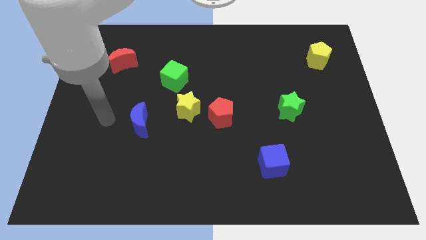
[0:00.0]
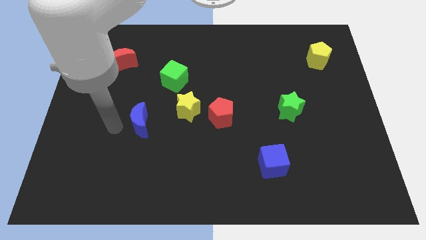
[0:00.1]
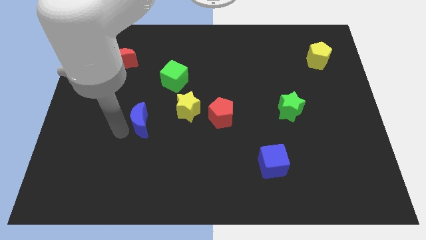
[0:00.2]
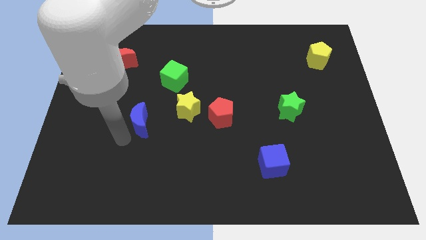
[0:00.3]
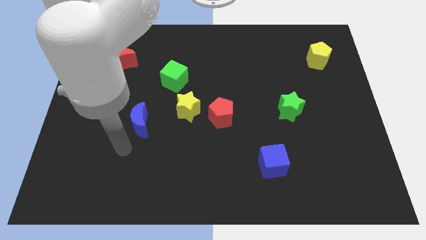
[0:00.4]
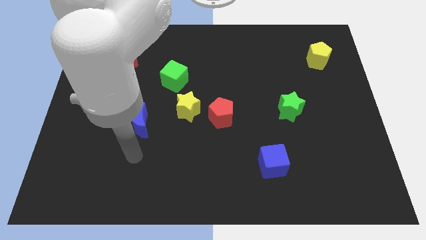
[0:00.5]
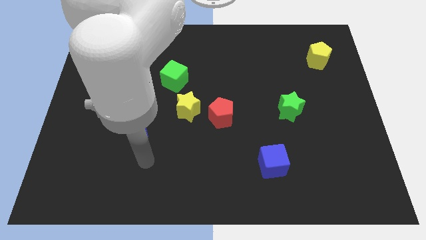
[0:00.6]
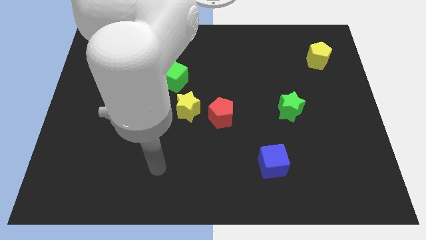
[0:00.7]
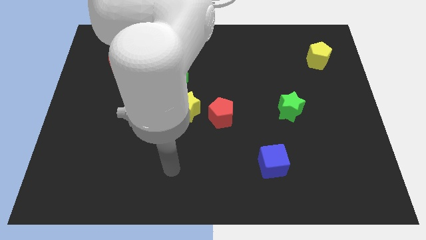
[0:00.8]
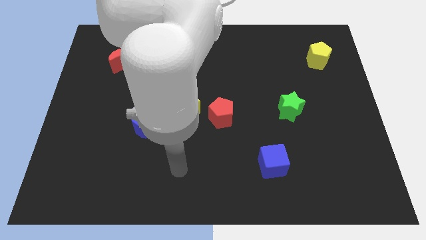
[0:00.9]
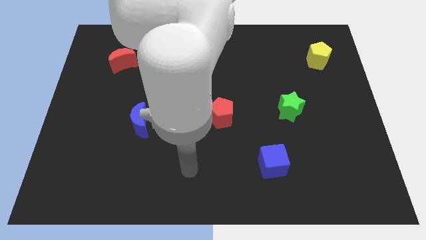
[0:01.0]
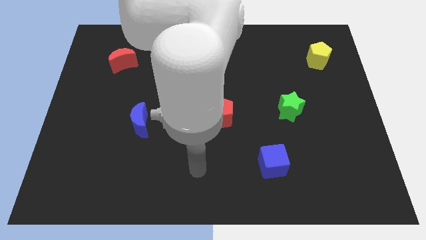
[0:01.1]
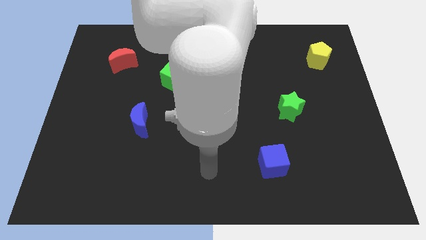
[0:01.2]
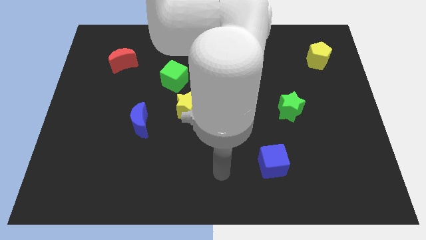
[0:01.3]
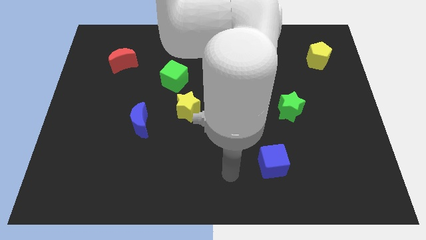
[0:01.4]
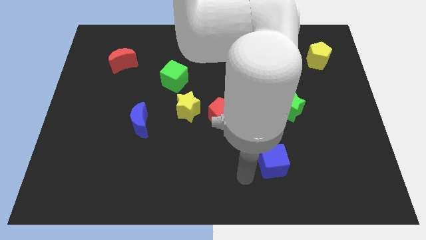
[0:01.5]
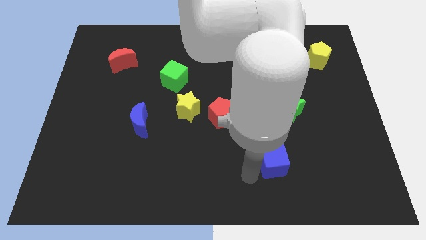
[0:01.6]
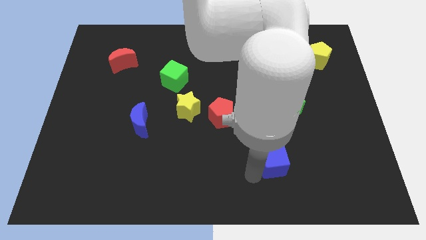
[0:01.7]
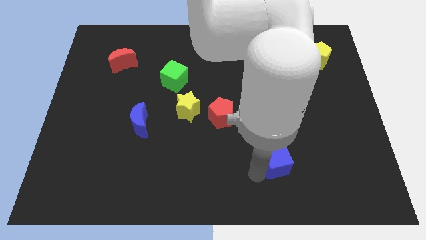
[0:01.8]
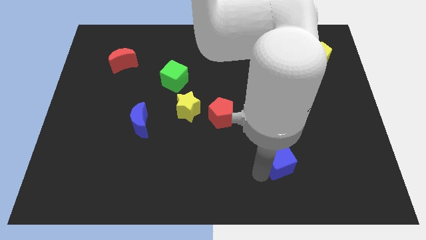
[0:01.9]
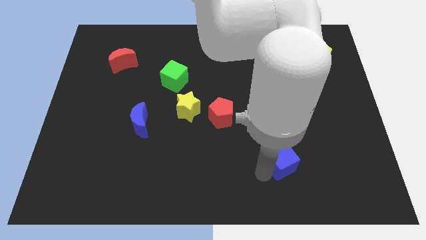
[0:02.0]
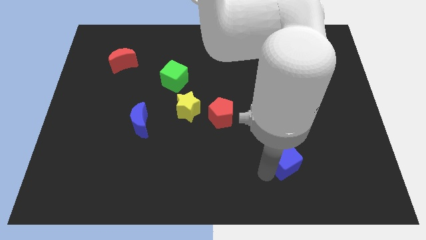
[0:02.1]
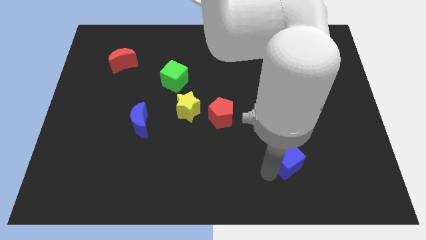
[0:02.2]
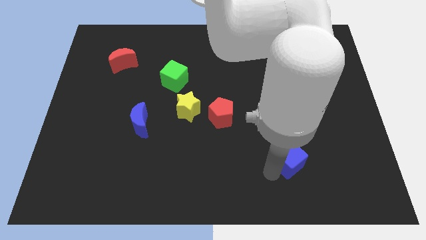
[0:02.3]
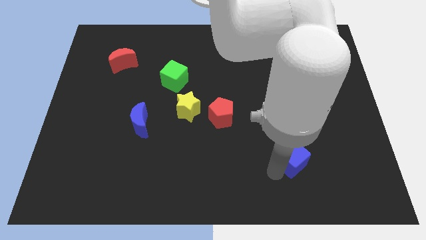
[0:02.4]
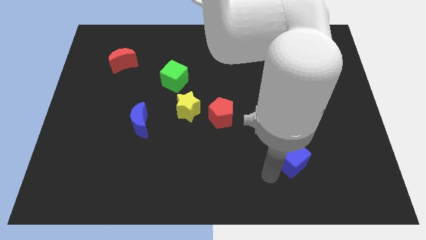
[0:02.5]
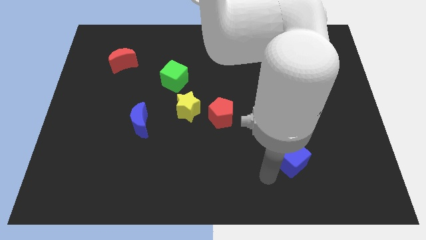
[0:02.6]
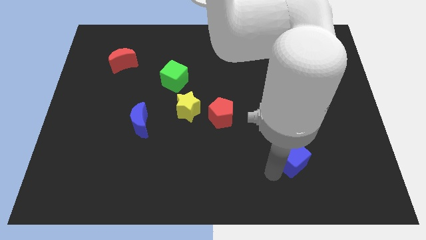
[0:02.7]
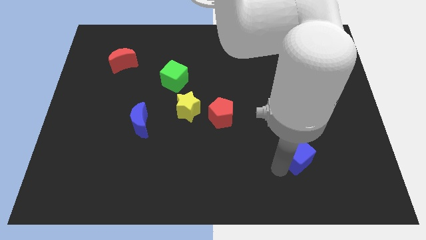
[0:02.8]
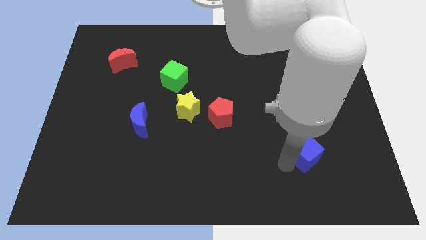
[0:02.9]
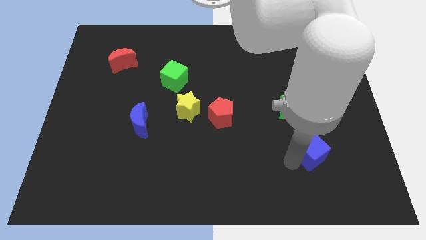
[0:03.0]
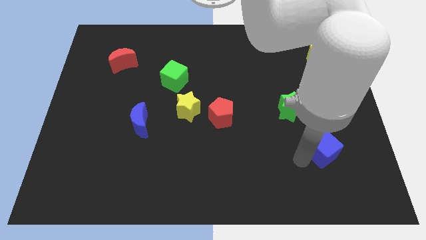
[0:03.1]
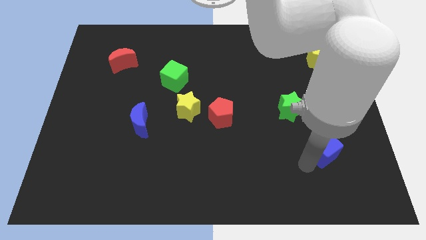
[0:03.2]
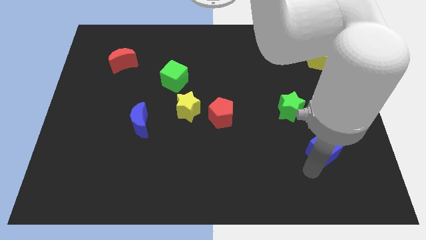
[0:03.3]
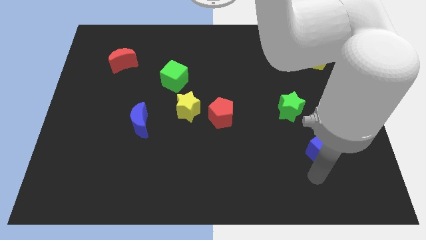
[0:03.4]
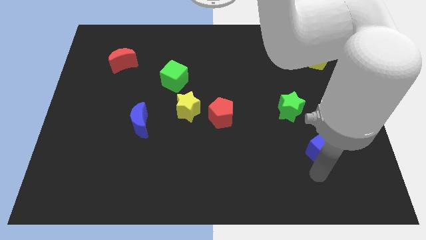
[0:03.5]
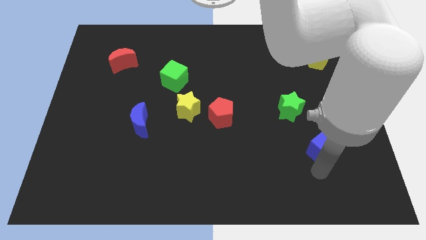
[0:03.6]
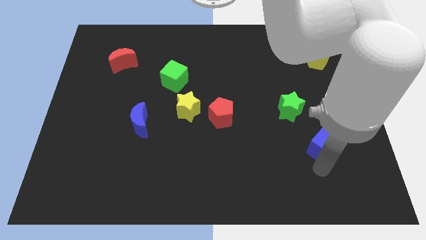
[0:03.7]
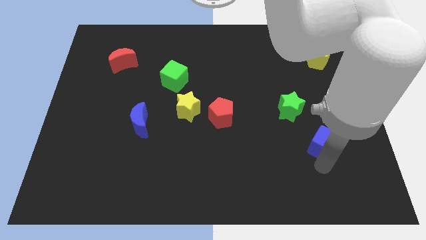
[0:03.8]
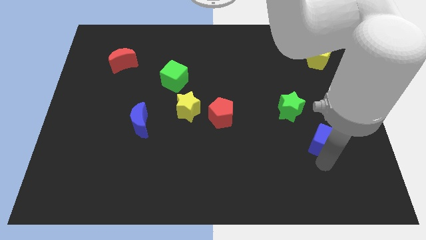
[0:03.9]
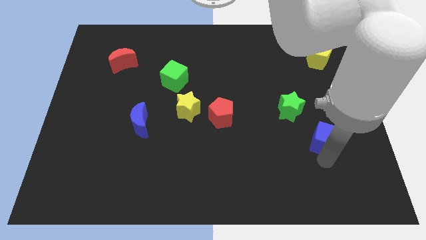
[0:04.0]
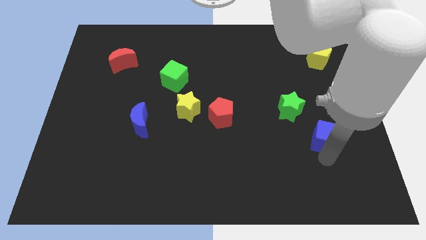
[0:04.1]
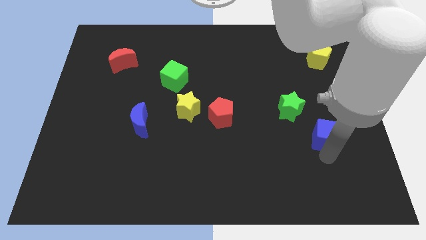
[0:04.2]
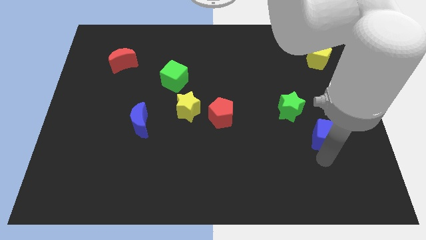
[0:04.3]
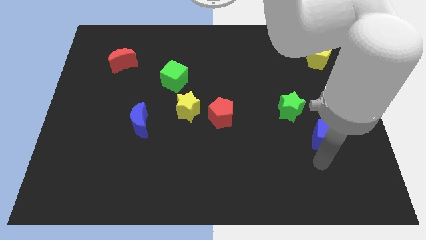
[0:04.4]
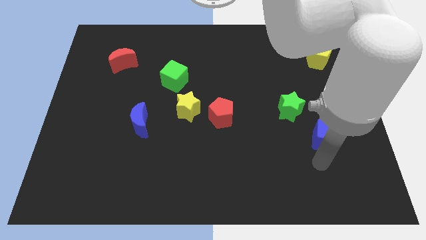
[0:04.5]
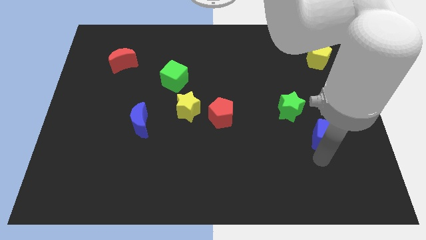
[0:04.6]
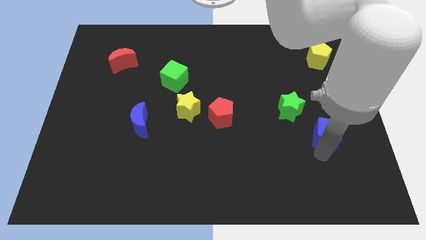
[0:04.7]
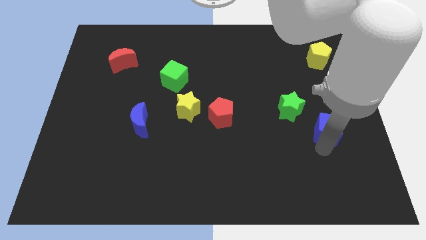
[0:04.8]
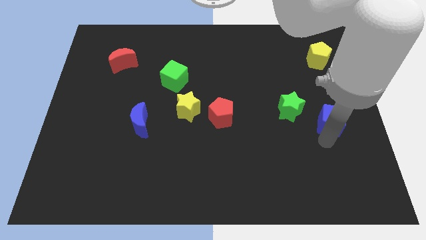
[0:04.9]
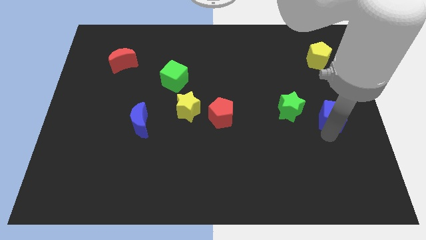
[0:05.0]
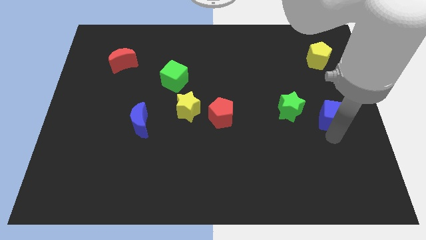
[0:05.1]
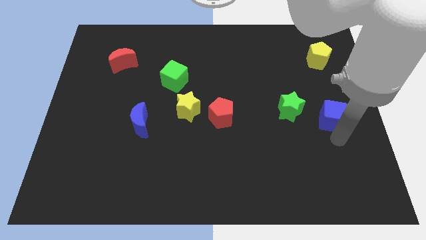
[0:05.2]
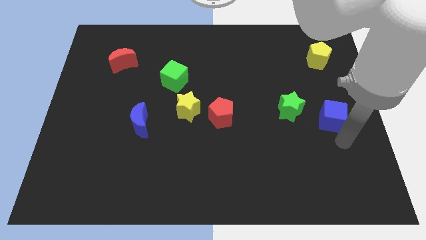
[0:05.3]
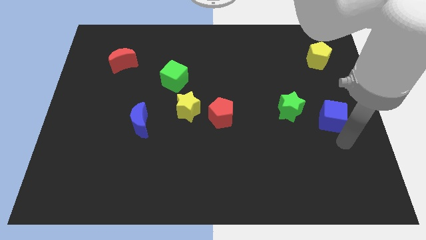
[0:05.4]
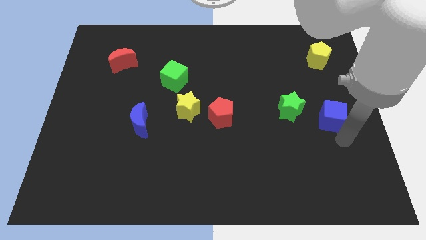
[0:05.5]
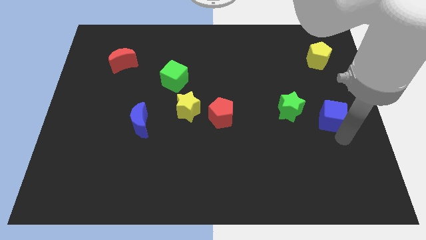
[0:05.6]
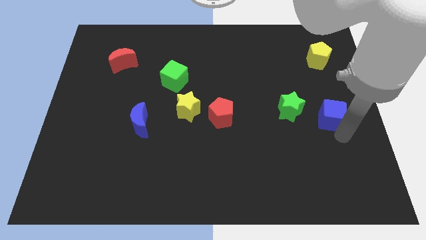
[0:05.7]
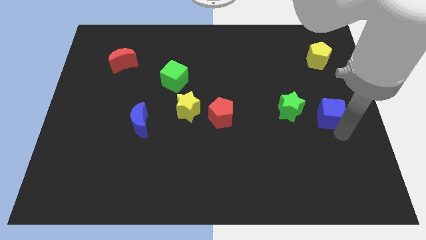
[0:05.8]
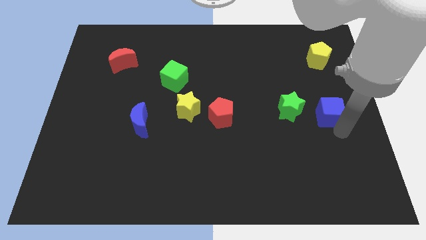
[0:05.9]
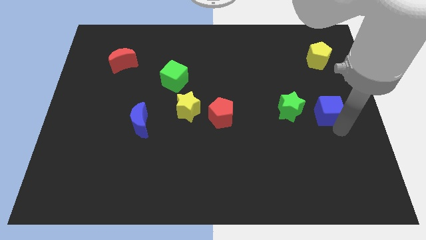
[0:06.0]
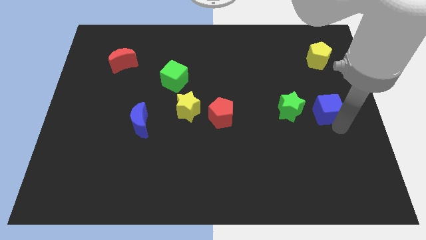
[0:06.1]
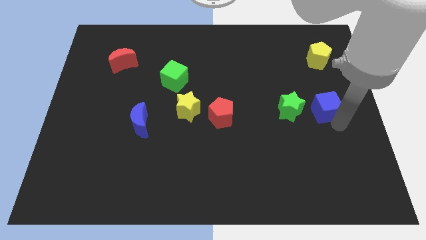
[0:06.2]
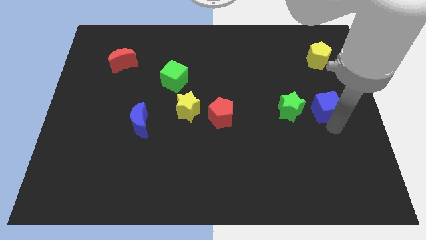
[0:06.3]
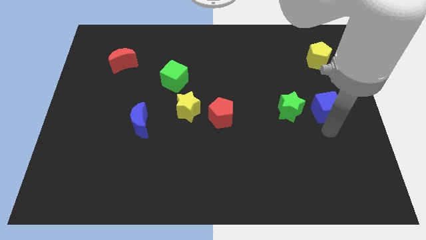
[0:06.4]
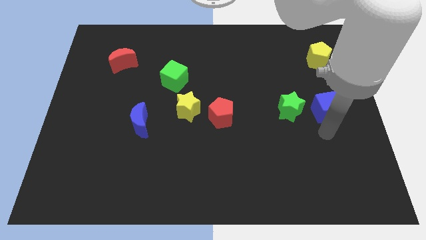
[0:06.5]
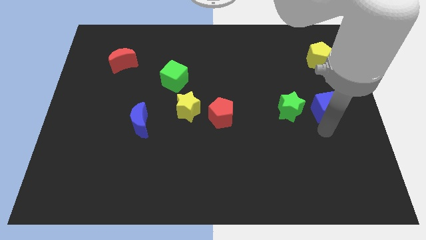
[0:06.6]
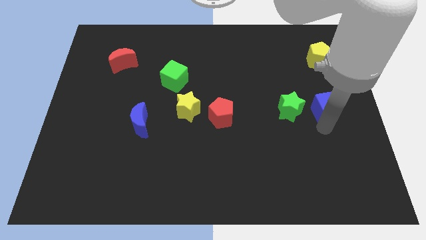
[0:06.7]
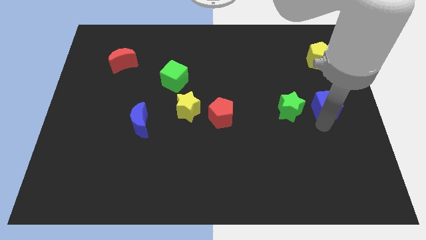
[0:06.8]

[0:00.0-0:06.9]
move the blue cube below the yellow pentagon
